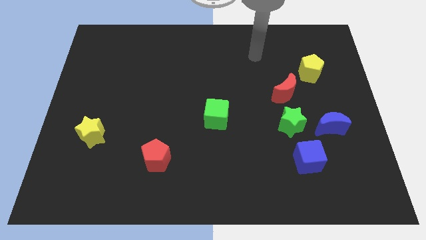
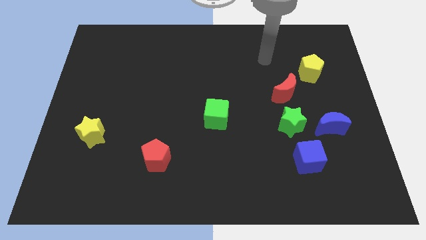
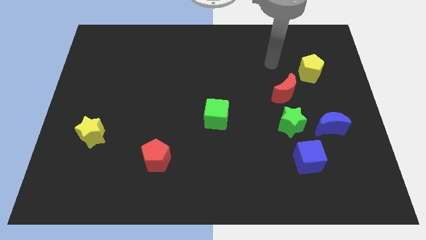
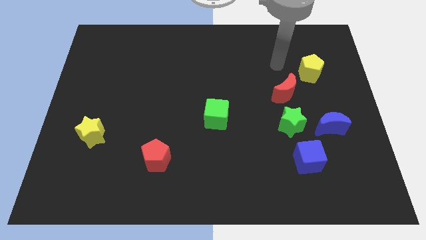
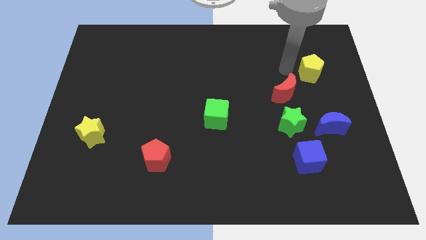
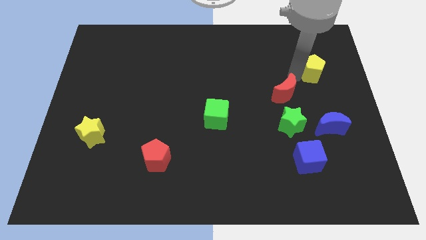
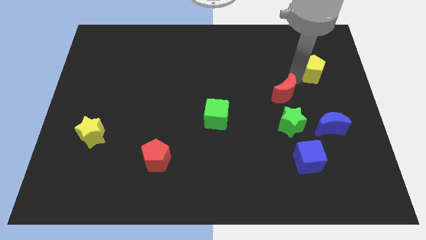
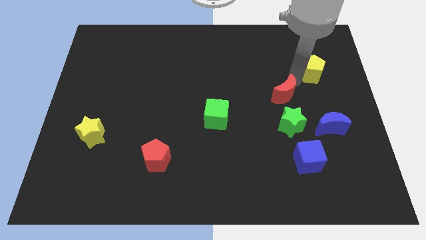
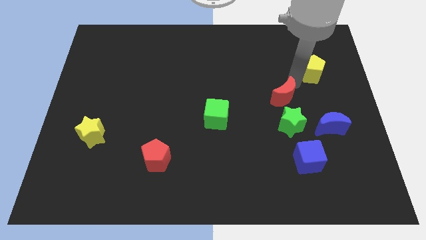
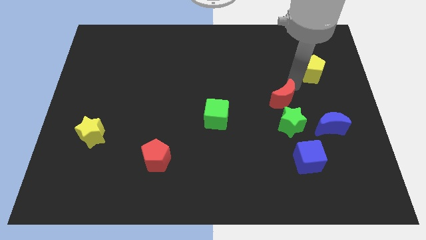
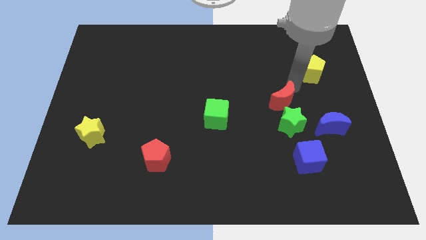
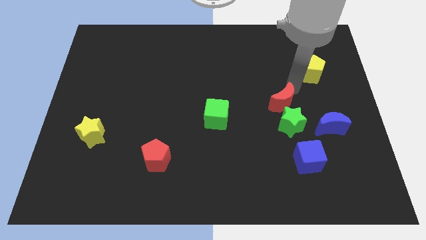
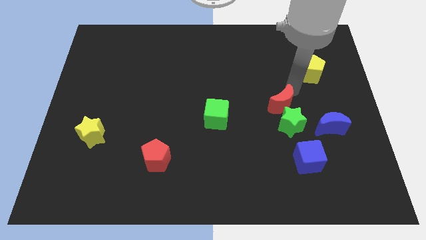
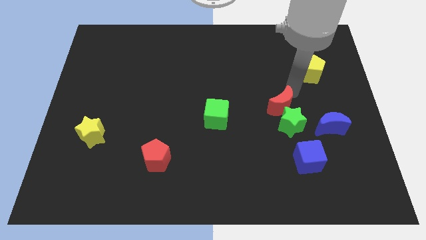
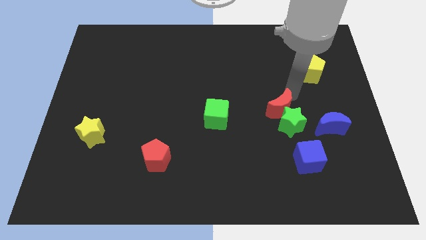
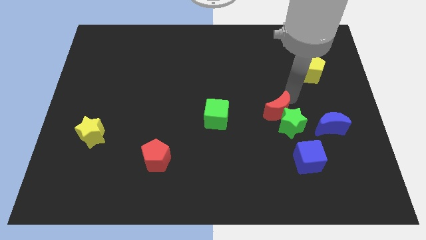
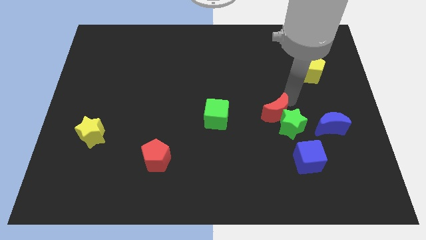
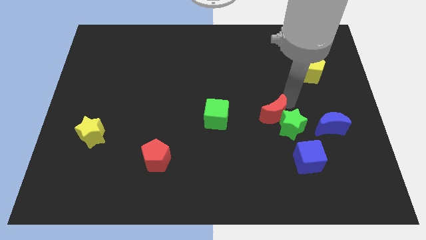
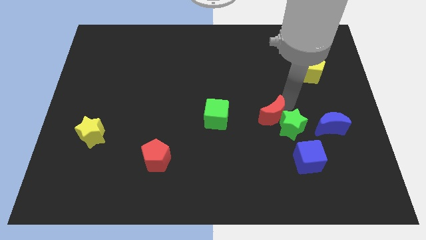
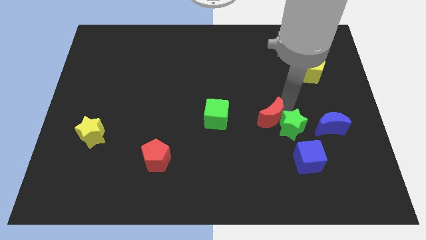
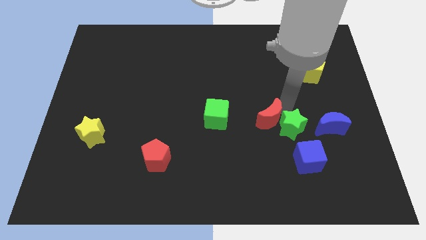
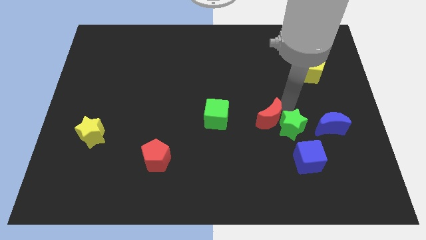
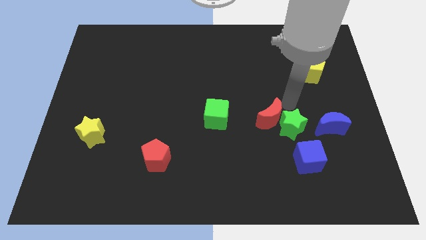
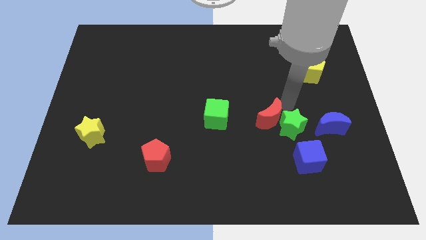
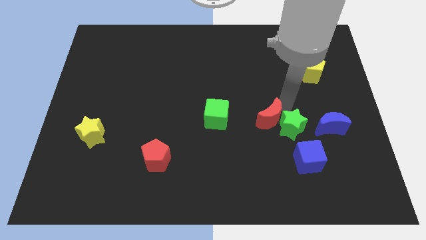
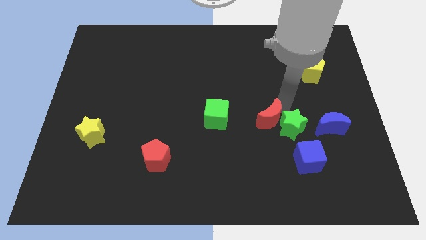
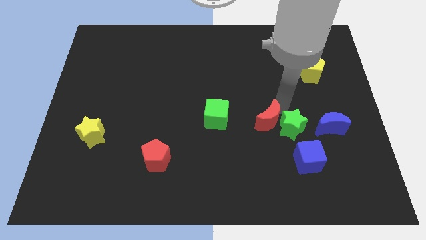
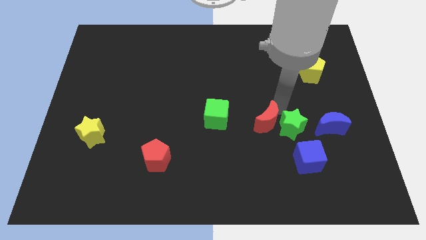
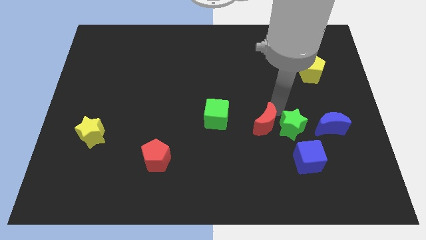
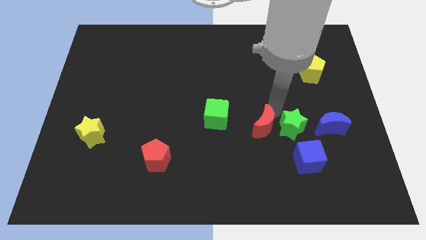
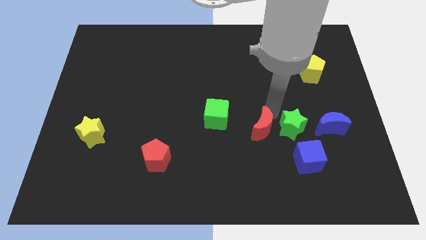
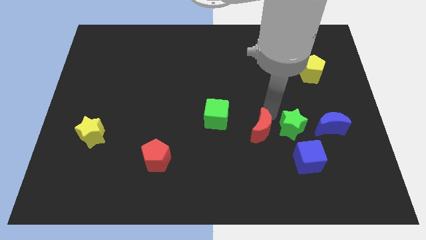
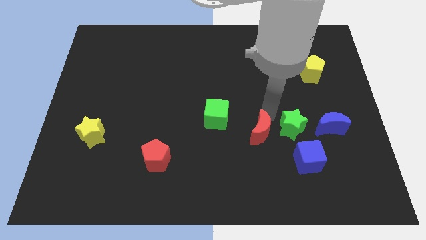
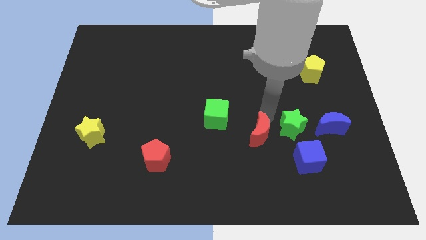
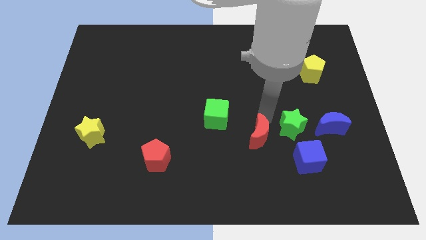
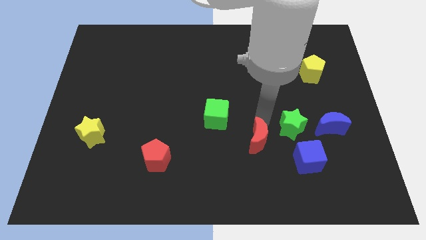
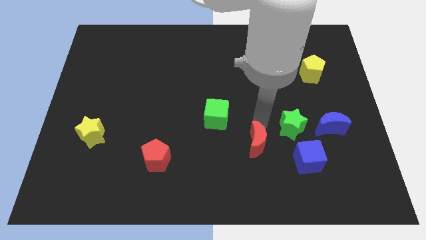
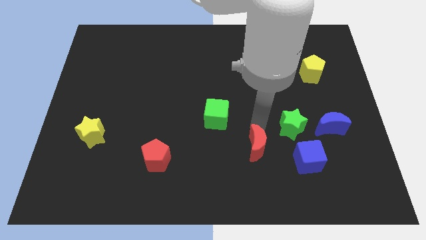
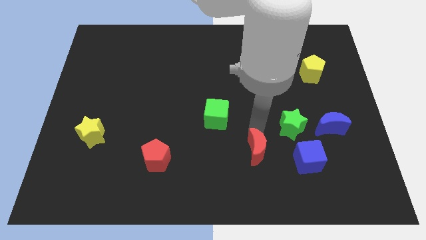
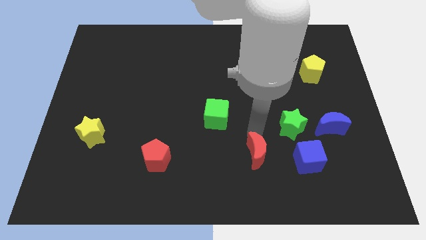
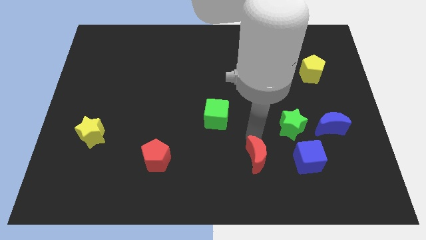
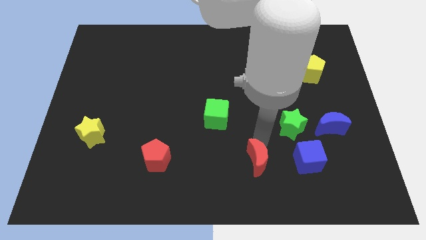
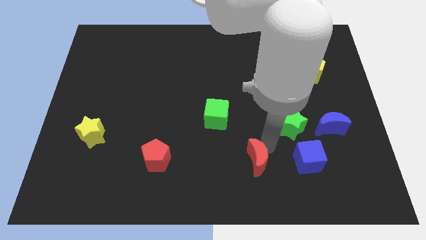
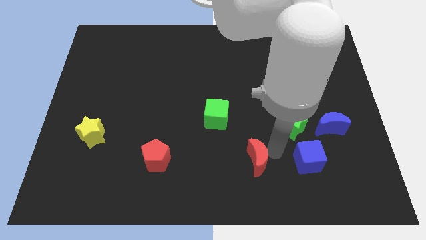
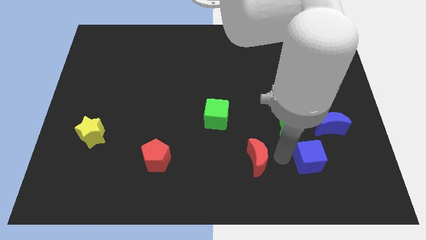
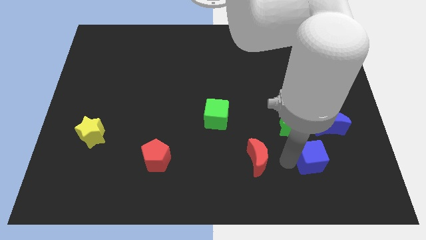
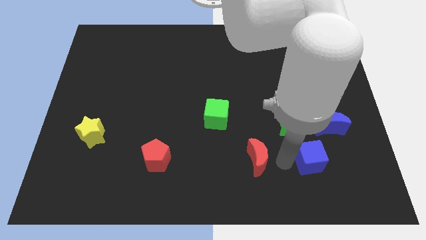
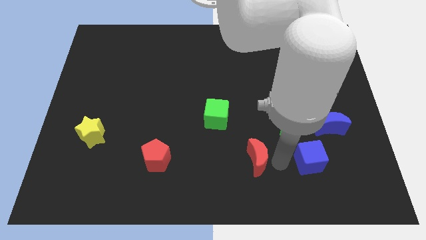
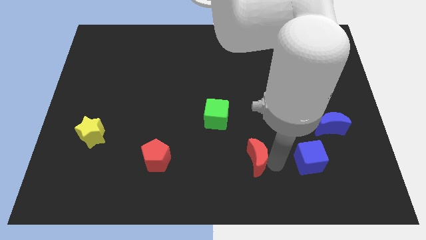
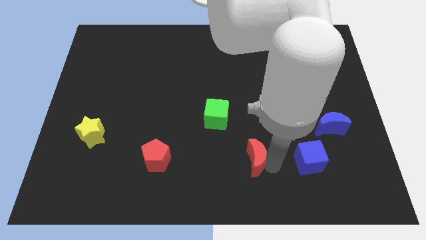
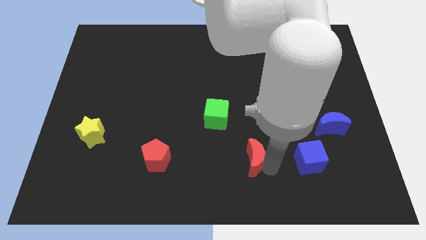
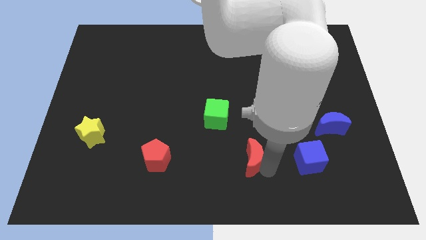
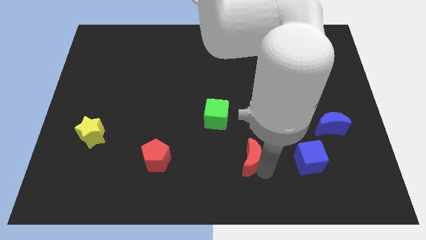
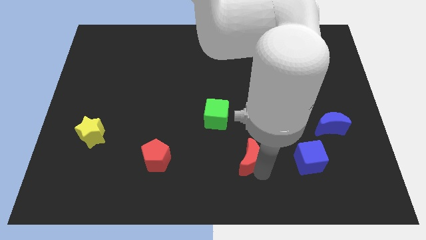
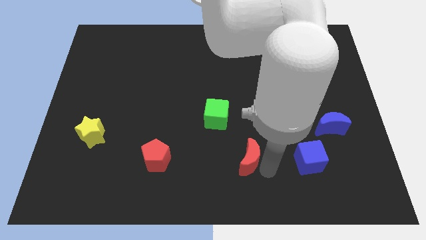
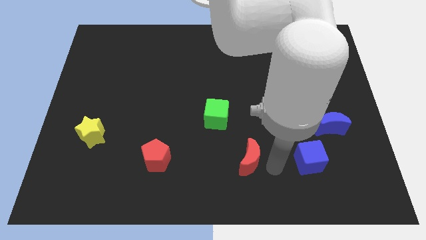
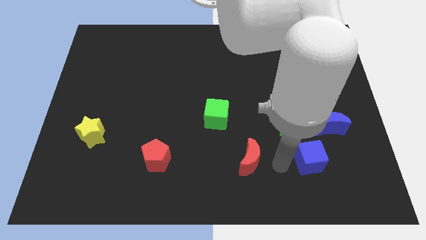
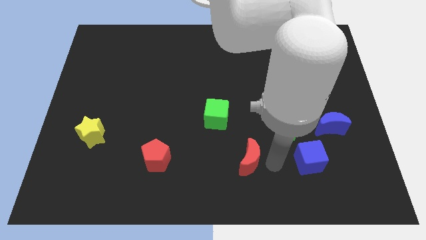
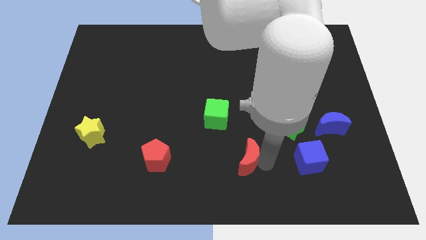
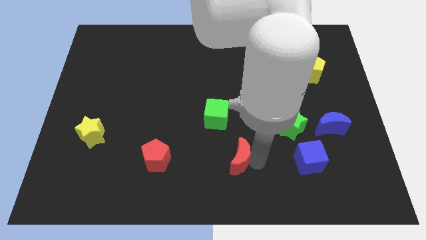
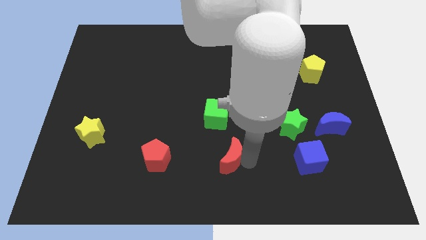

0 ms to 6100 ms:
move the red moon to the bottom of the green cube

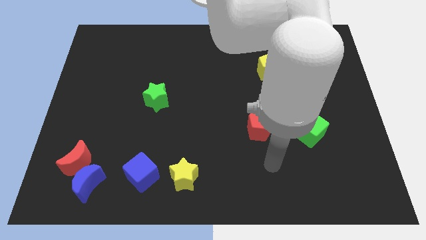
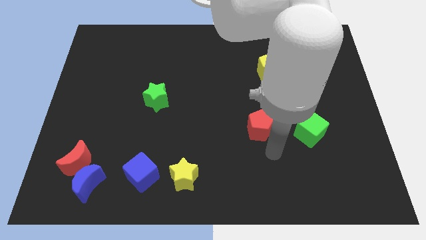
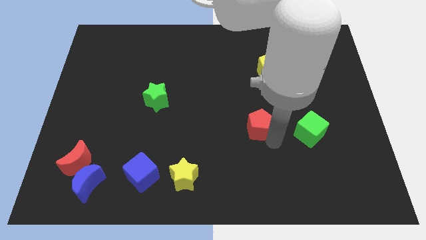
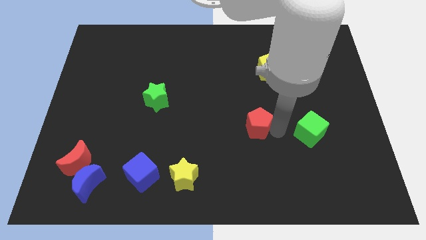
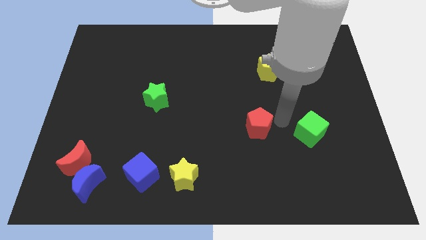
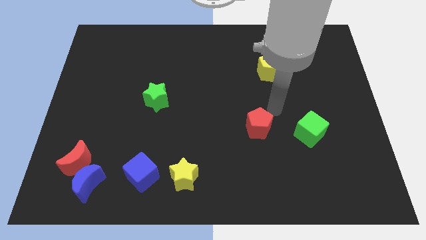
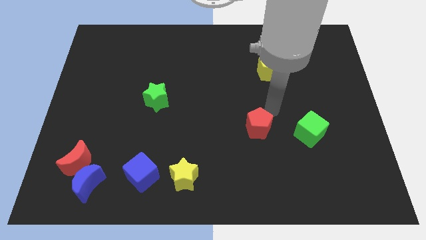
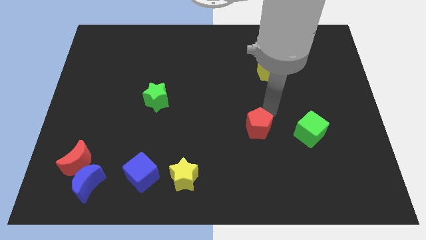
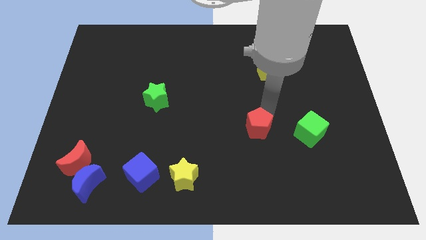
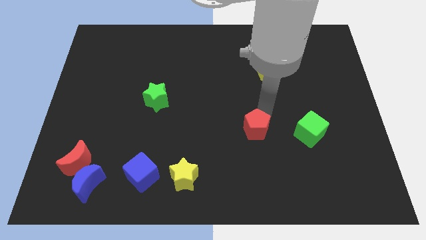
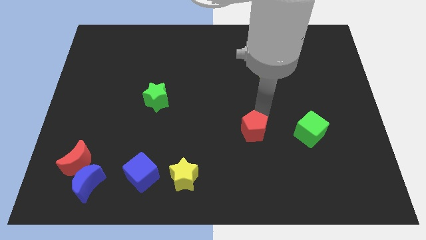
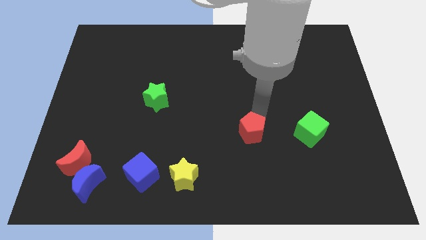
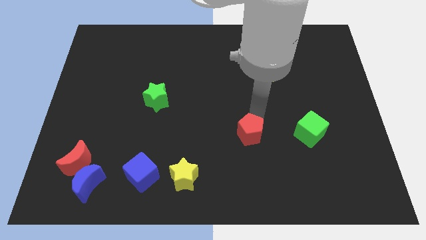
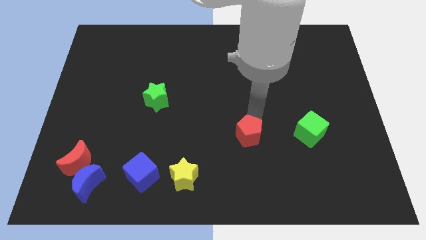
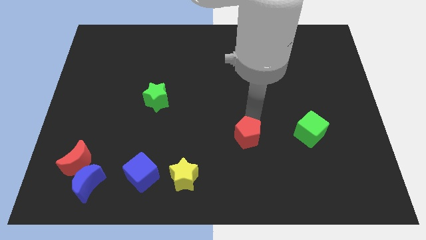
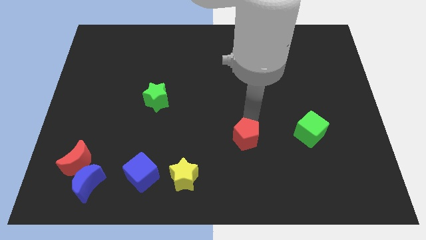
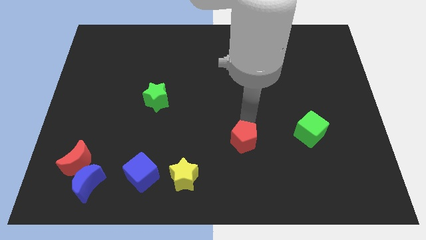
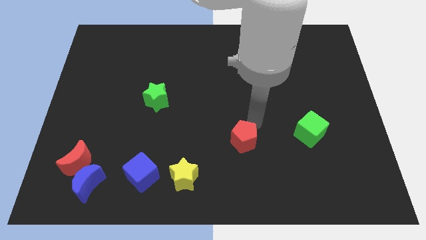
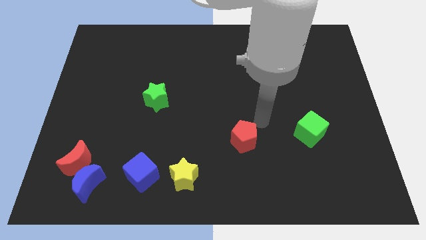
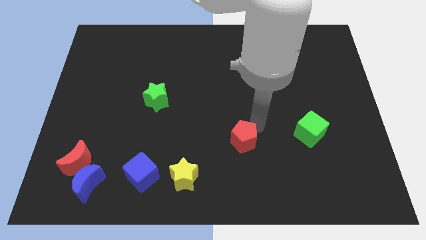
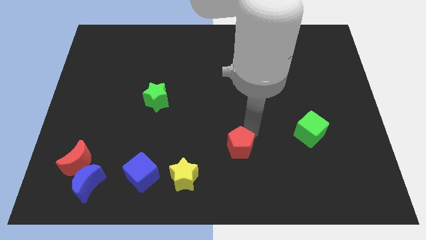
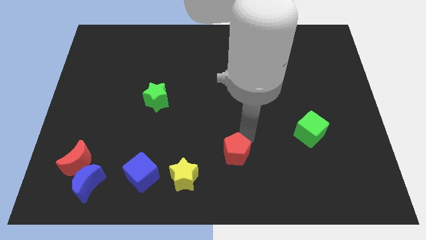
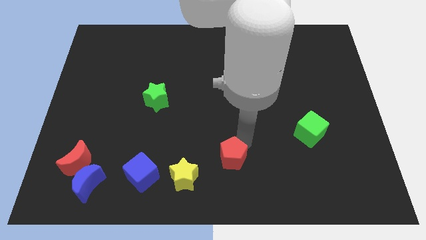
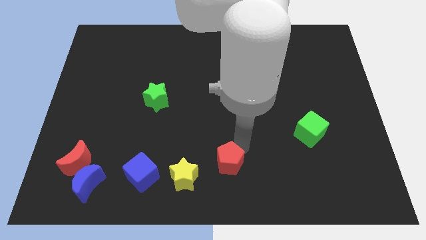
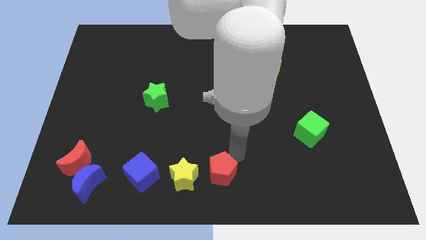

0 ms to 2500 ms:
slide the red pentagon to the right side of the blue cube
